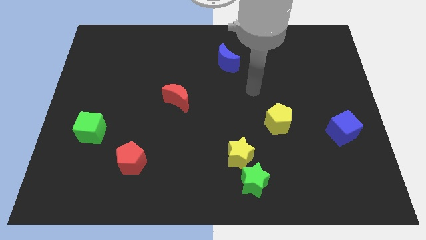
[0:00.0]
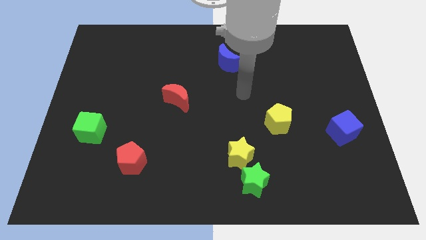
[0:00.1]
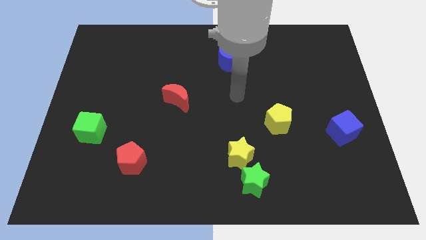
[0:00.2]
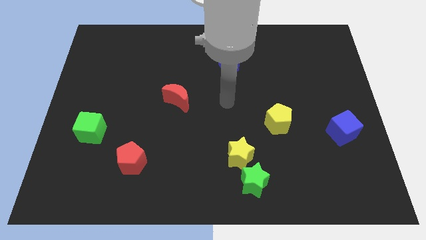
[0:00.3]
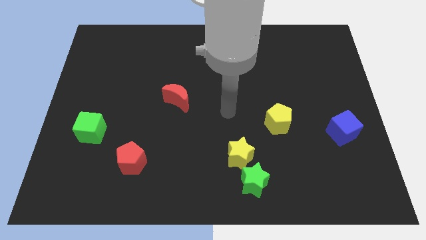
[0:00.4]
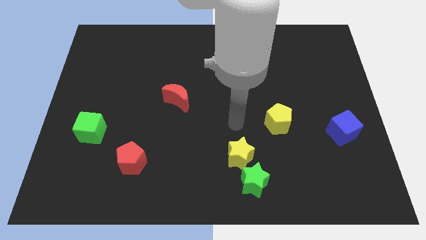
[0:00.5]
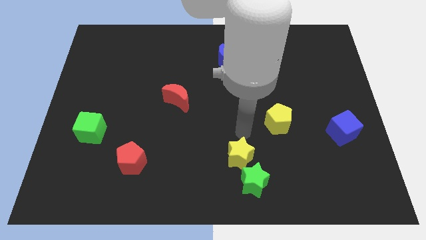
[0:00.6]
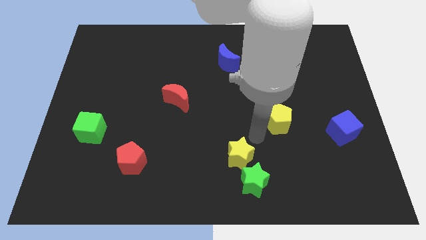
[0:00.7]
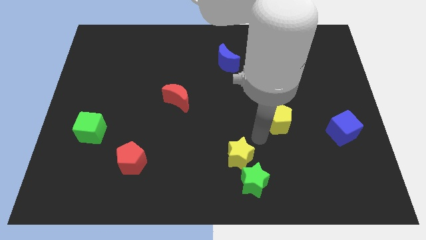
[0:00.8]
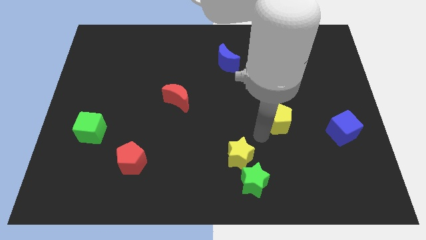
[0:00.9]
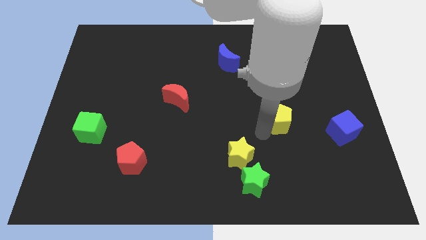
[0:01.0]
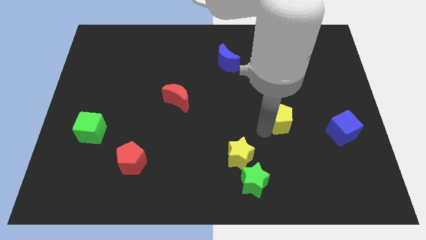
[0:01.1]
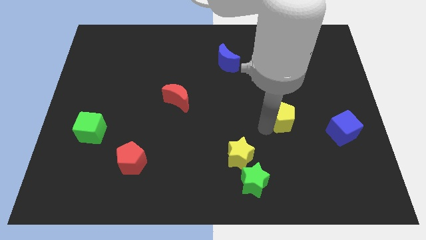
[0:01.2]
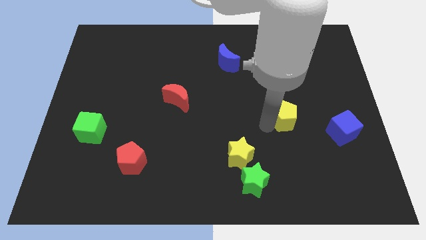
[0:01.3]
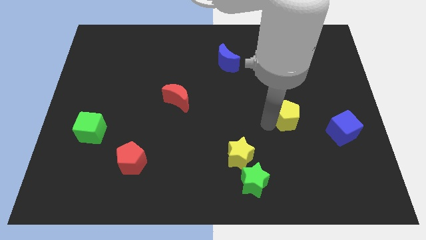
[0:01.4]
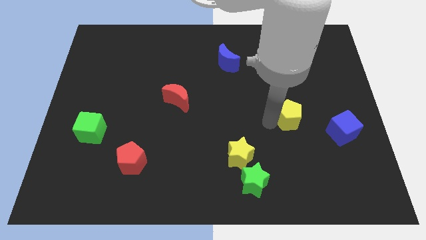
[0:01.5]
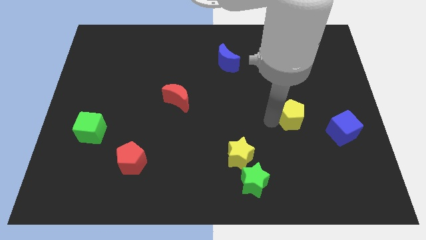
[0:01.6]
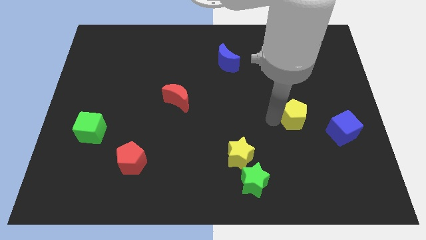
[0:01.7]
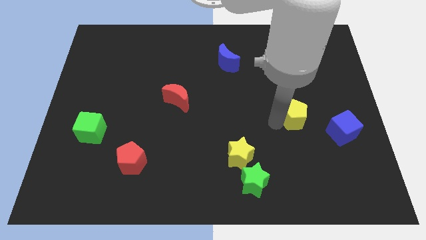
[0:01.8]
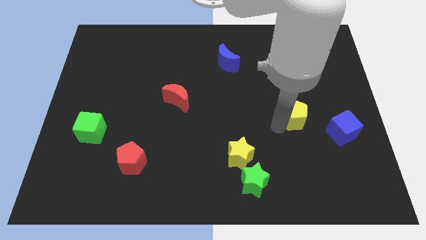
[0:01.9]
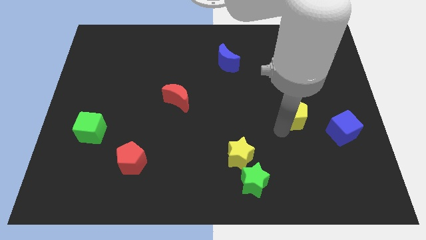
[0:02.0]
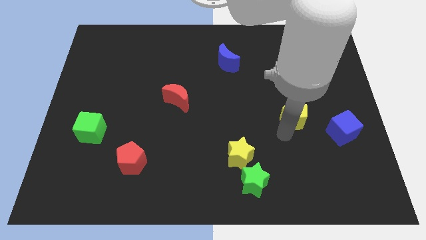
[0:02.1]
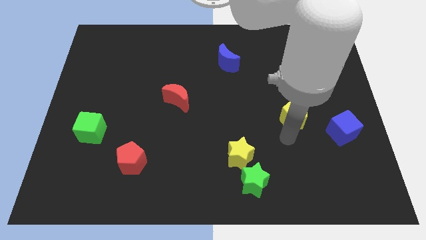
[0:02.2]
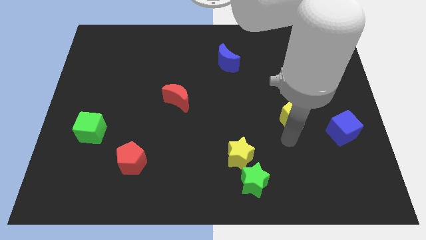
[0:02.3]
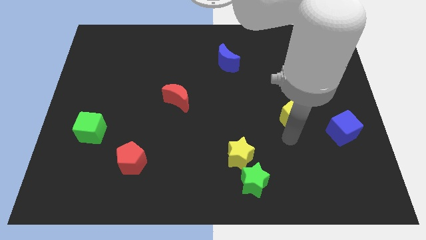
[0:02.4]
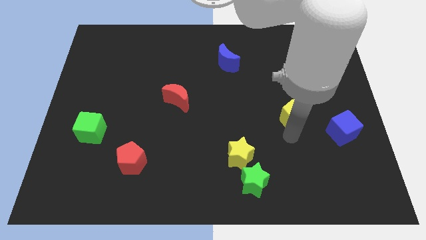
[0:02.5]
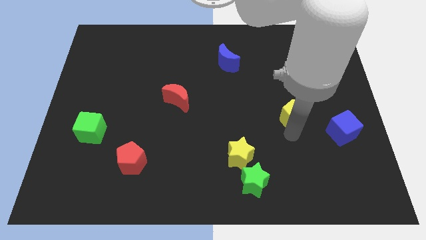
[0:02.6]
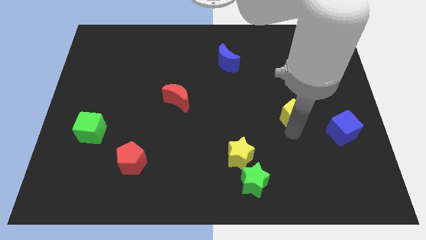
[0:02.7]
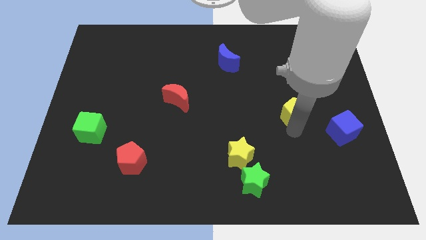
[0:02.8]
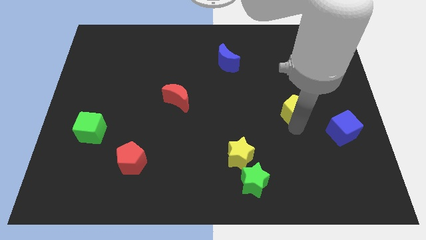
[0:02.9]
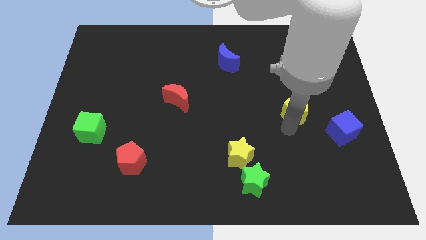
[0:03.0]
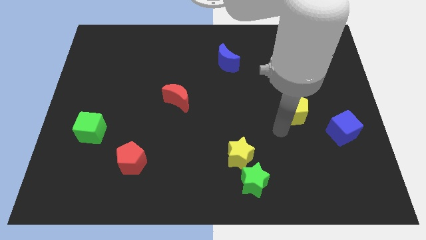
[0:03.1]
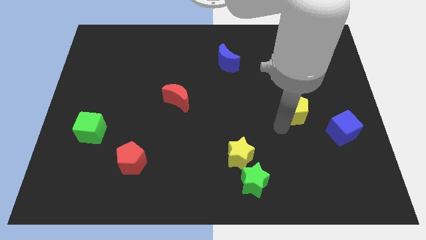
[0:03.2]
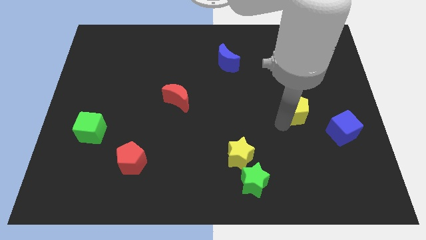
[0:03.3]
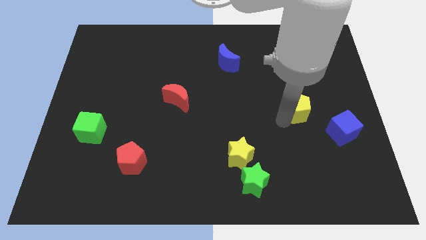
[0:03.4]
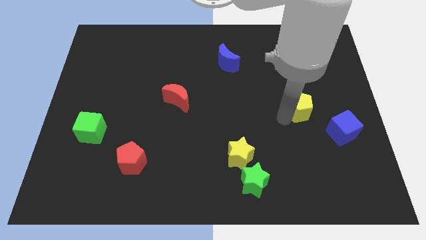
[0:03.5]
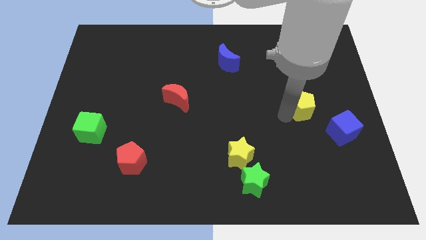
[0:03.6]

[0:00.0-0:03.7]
slightly move the yellow pentagon diagonally up and right

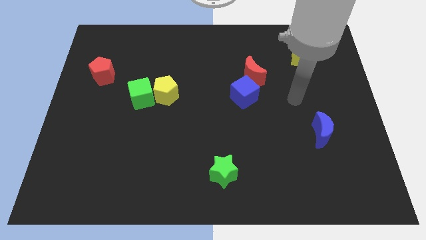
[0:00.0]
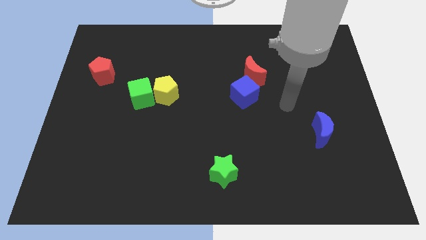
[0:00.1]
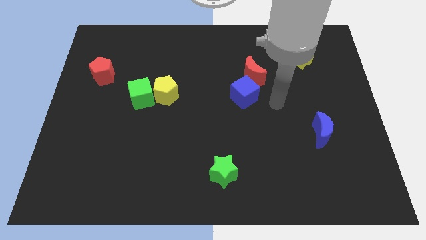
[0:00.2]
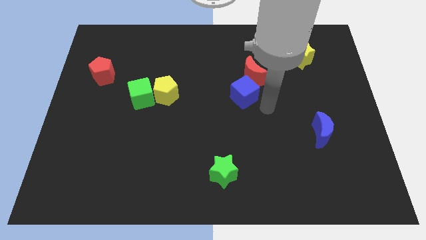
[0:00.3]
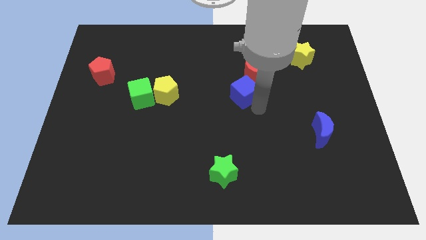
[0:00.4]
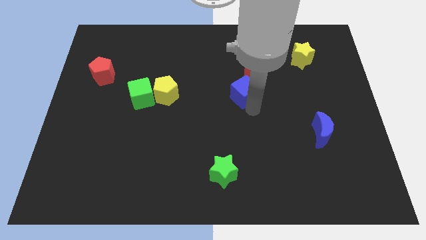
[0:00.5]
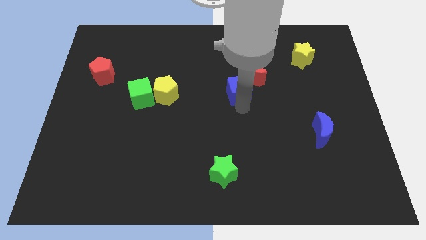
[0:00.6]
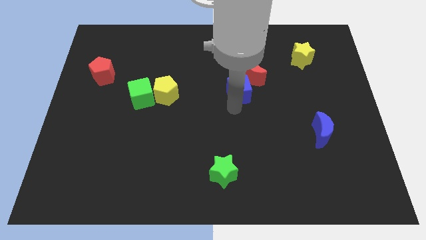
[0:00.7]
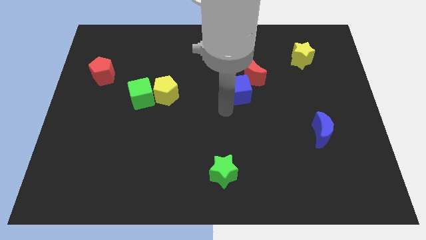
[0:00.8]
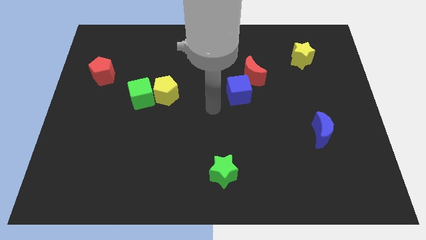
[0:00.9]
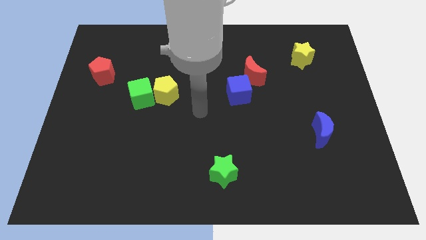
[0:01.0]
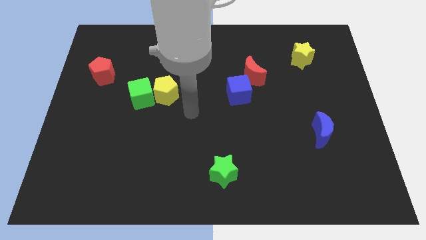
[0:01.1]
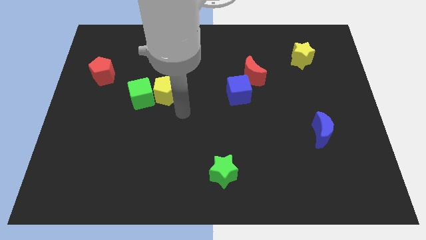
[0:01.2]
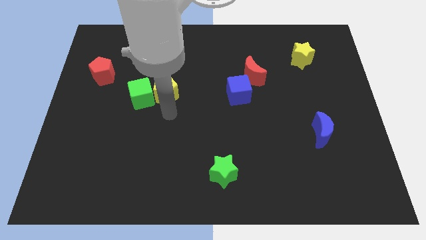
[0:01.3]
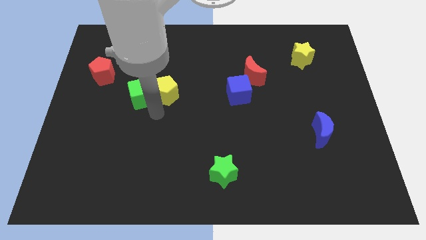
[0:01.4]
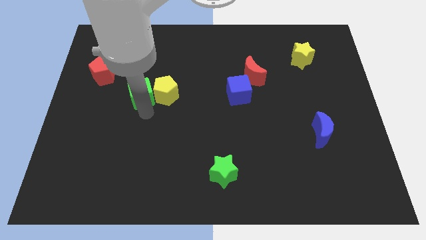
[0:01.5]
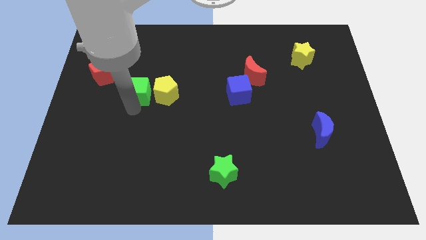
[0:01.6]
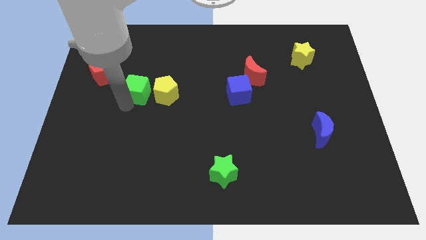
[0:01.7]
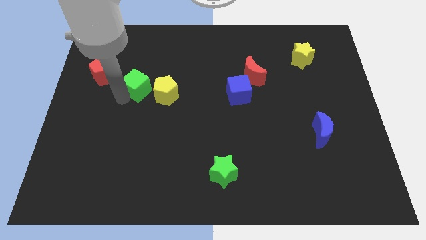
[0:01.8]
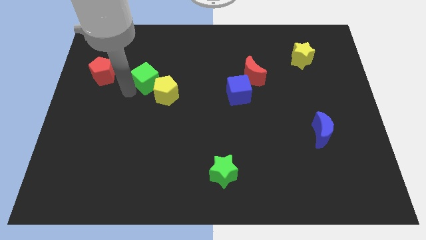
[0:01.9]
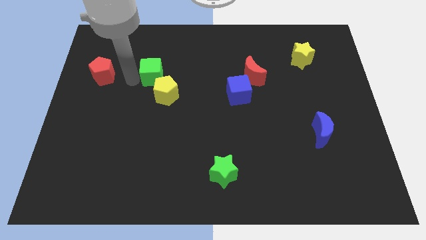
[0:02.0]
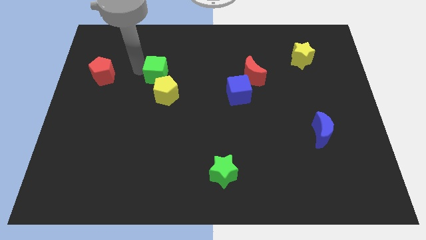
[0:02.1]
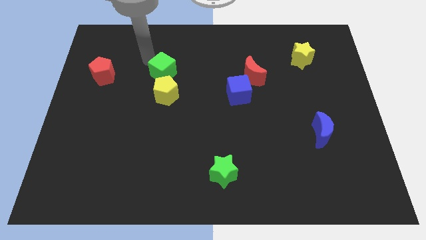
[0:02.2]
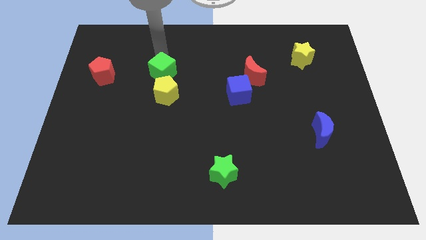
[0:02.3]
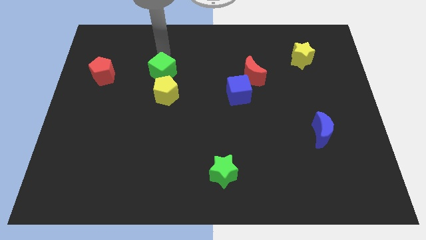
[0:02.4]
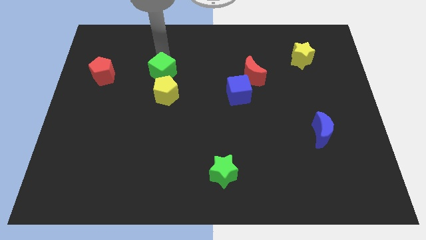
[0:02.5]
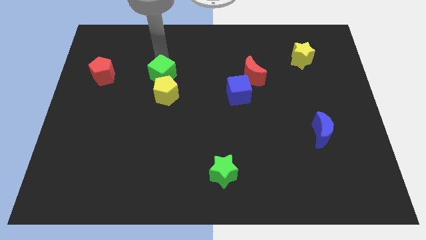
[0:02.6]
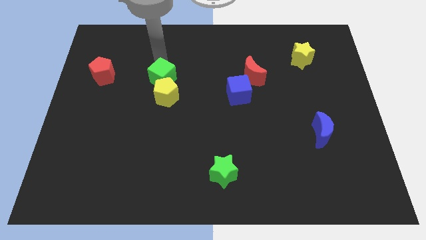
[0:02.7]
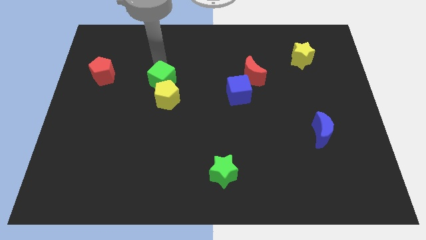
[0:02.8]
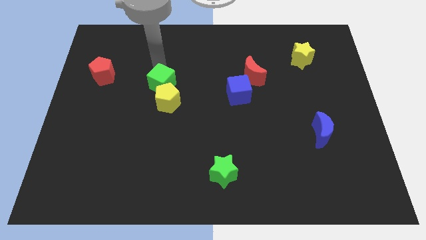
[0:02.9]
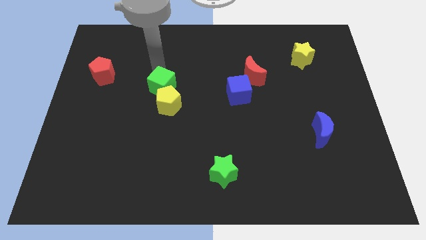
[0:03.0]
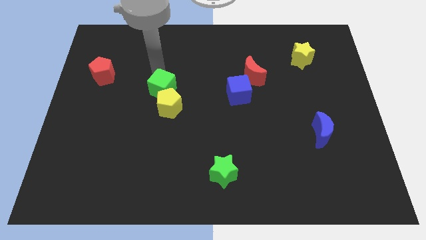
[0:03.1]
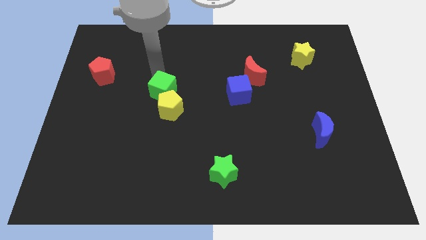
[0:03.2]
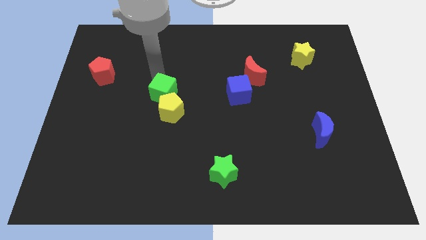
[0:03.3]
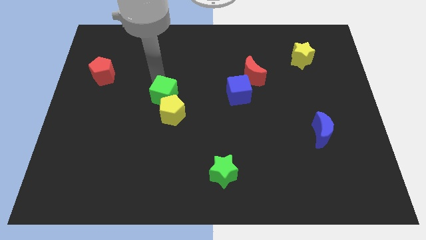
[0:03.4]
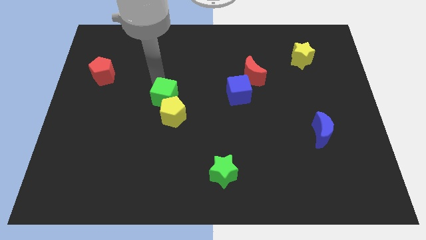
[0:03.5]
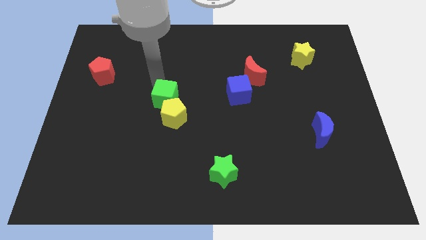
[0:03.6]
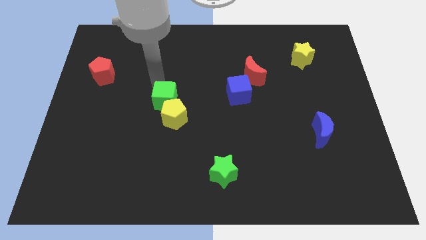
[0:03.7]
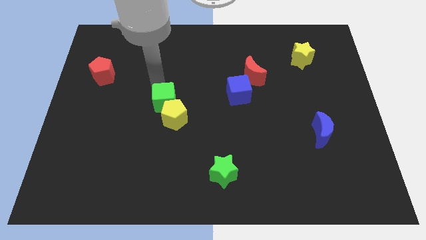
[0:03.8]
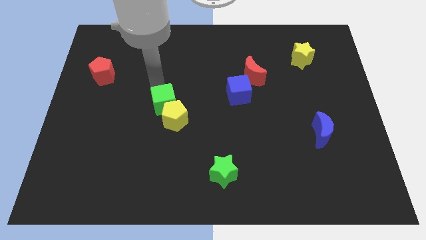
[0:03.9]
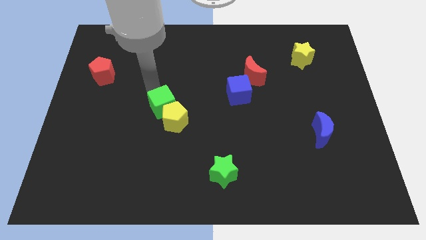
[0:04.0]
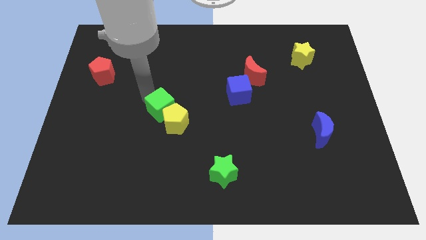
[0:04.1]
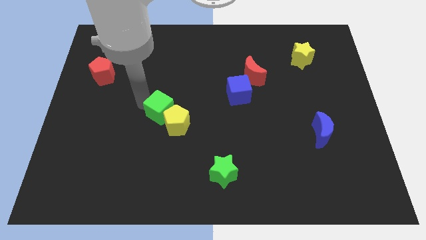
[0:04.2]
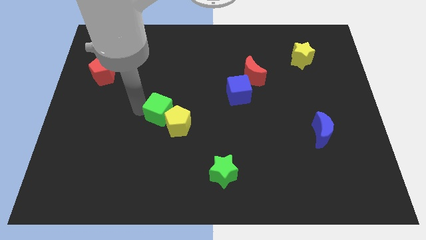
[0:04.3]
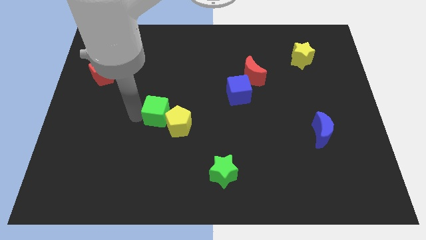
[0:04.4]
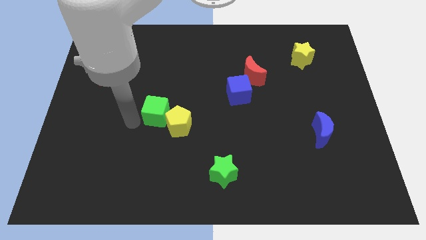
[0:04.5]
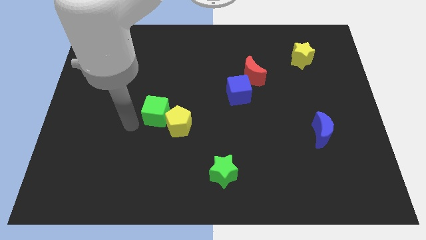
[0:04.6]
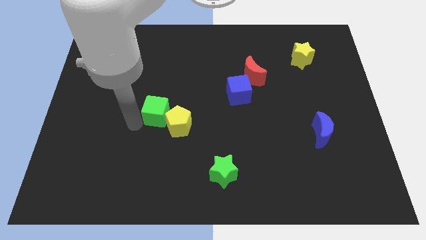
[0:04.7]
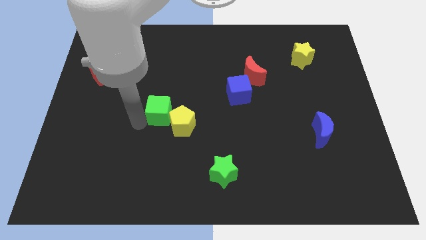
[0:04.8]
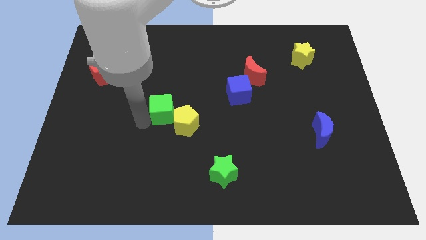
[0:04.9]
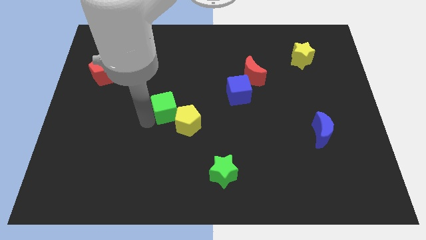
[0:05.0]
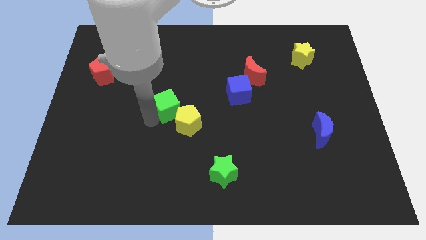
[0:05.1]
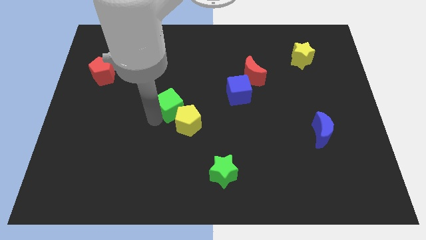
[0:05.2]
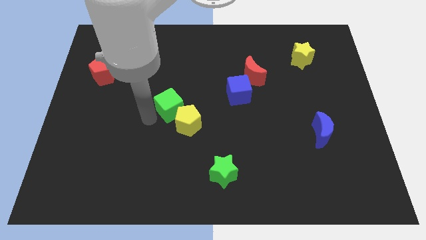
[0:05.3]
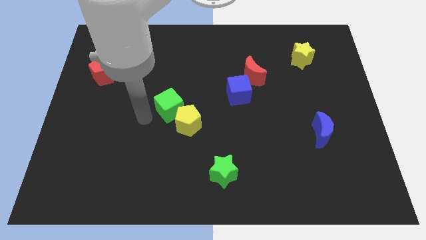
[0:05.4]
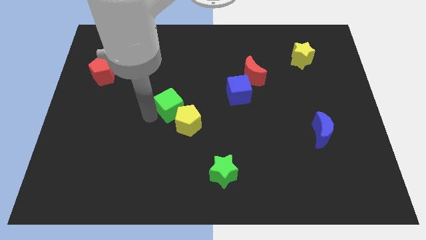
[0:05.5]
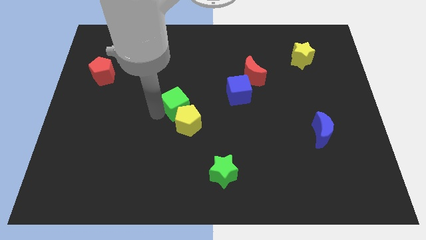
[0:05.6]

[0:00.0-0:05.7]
slightly move the green cube right
